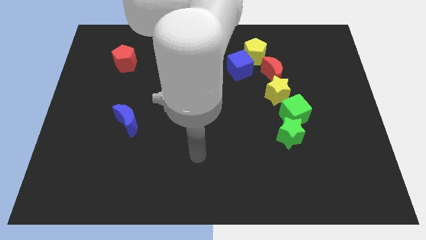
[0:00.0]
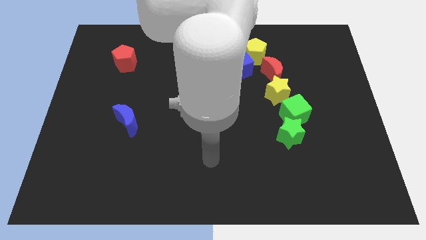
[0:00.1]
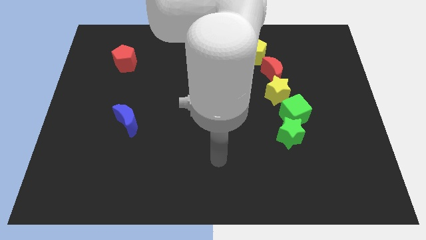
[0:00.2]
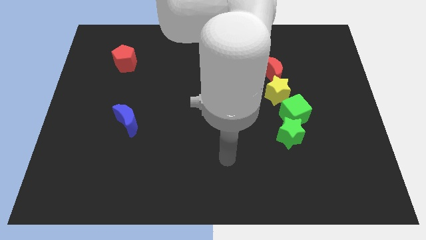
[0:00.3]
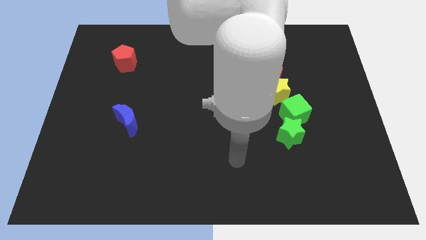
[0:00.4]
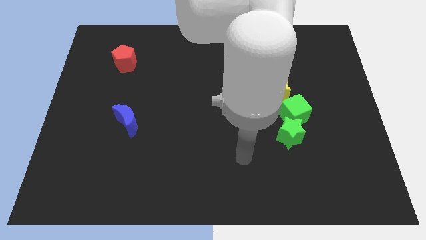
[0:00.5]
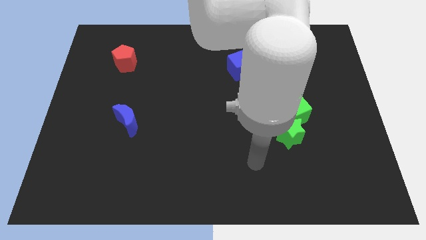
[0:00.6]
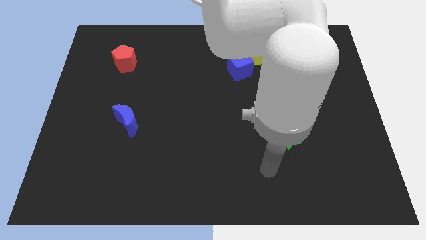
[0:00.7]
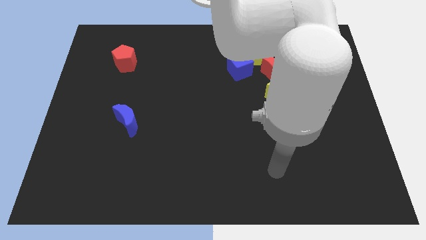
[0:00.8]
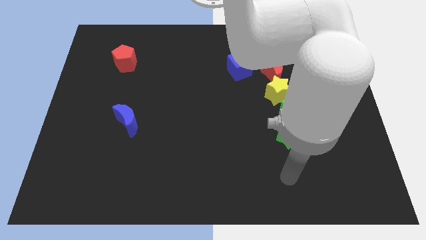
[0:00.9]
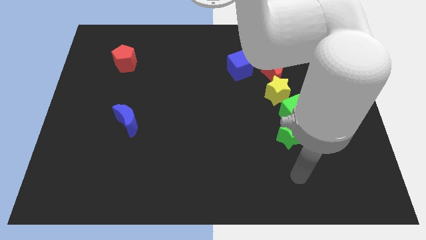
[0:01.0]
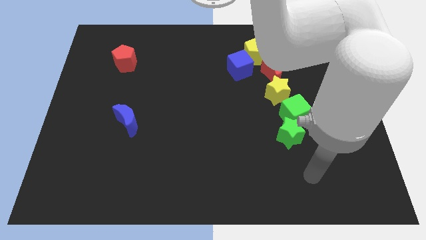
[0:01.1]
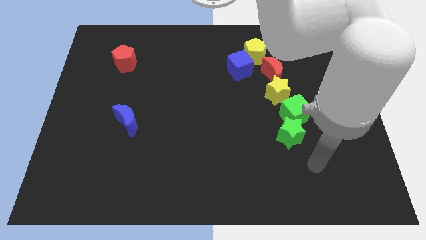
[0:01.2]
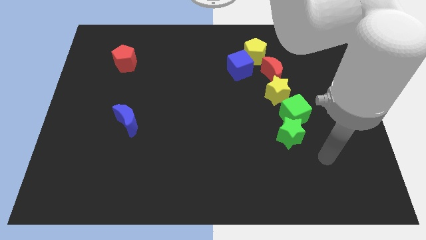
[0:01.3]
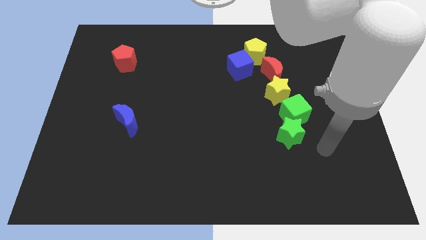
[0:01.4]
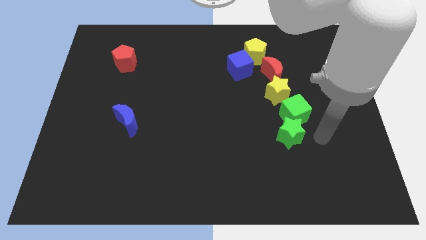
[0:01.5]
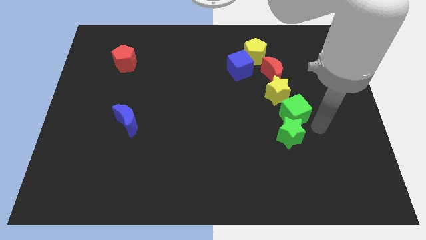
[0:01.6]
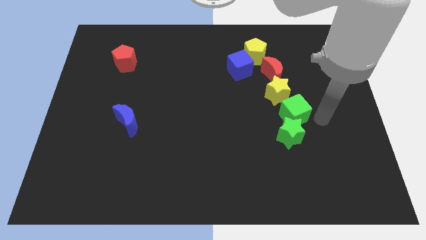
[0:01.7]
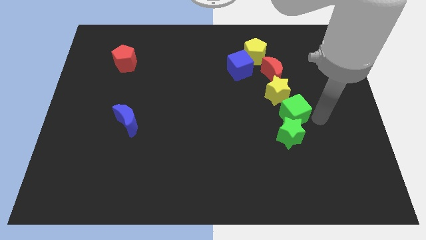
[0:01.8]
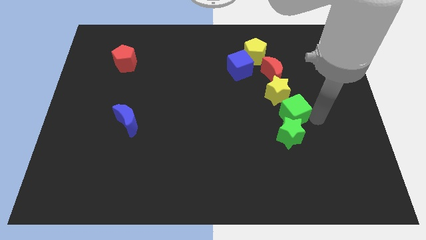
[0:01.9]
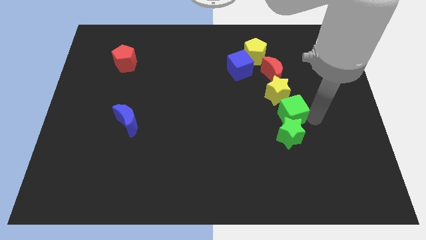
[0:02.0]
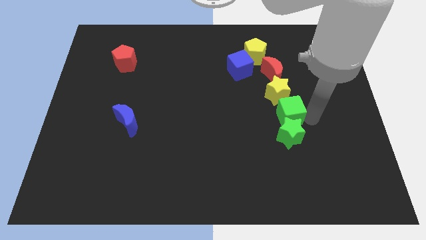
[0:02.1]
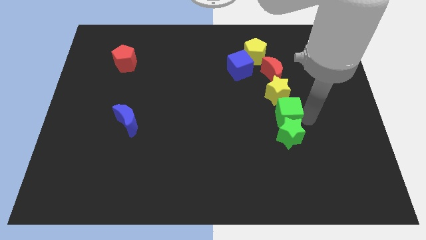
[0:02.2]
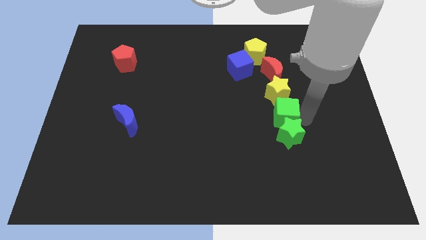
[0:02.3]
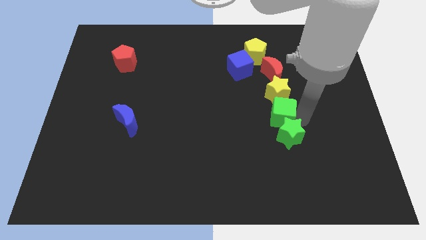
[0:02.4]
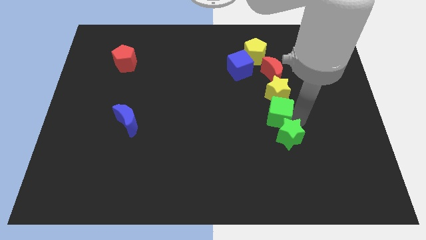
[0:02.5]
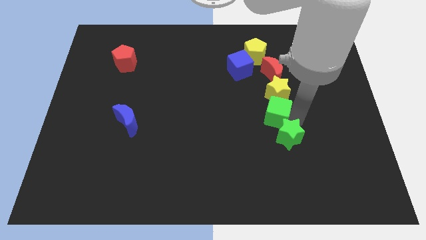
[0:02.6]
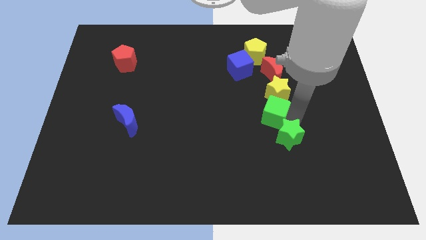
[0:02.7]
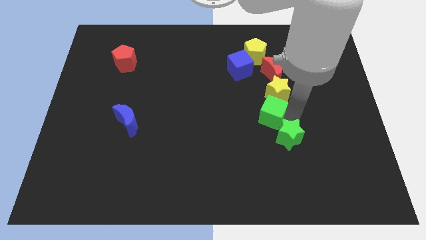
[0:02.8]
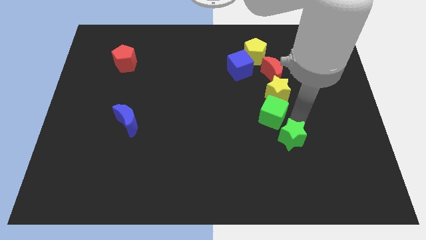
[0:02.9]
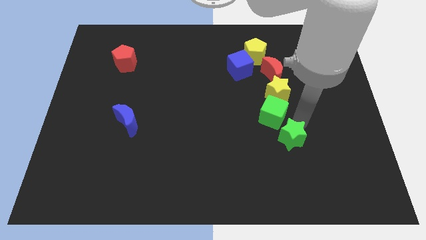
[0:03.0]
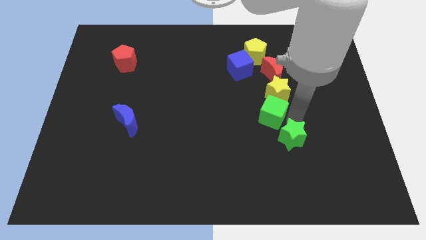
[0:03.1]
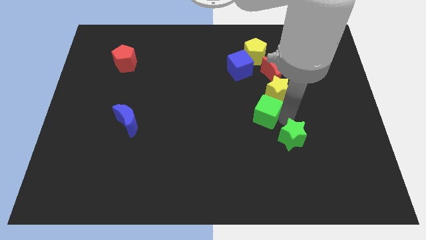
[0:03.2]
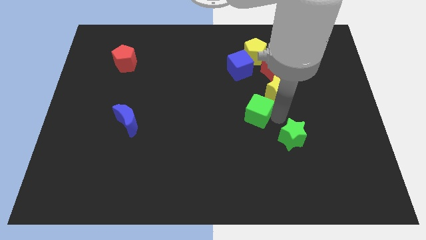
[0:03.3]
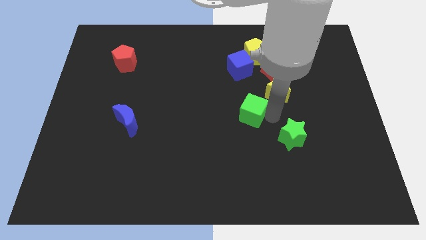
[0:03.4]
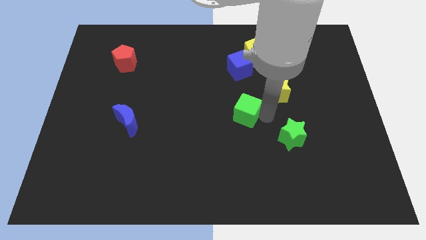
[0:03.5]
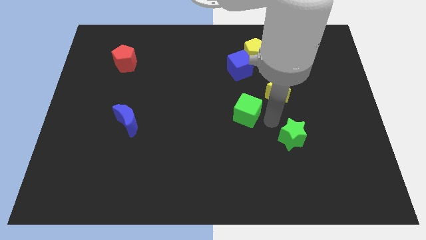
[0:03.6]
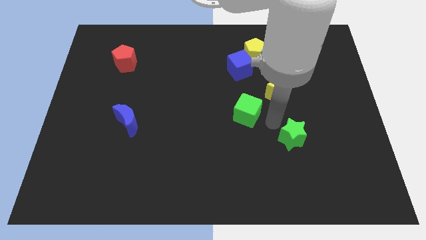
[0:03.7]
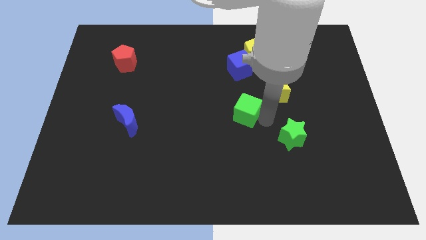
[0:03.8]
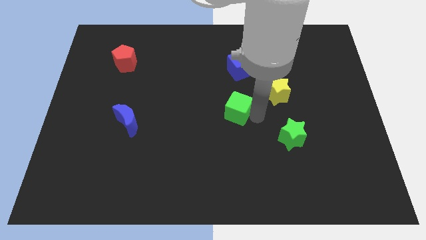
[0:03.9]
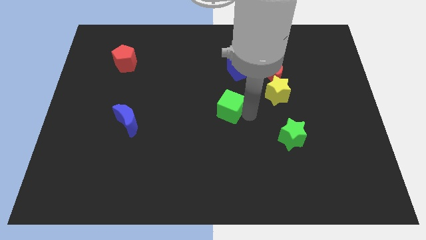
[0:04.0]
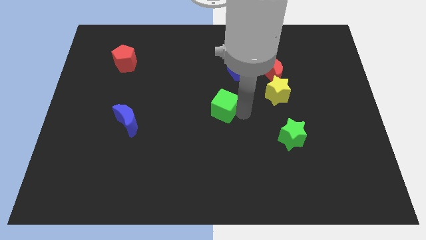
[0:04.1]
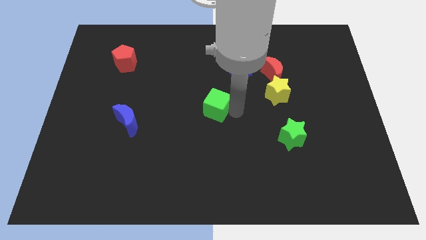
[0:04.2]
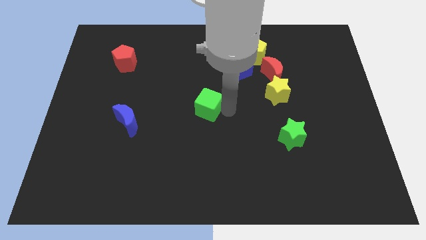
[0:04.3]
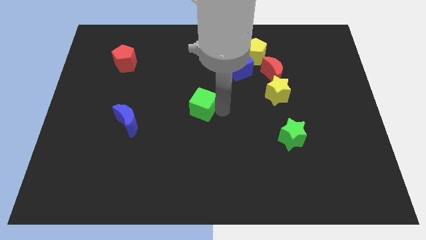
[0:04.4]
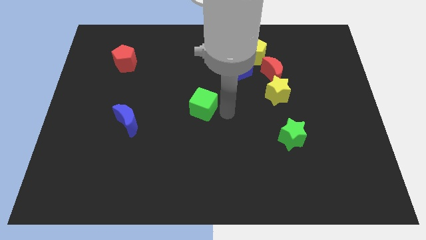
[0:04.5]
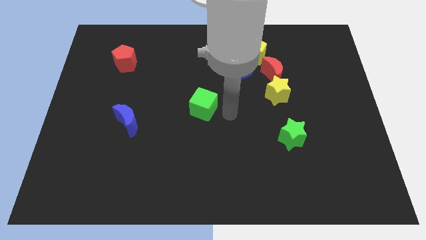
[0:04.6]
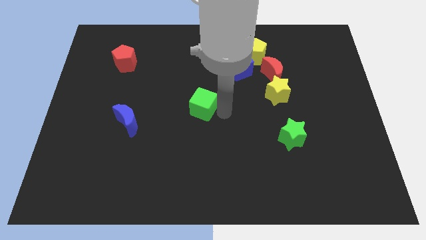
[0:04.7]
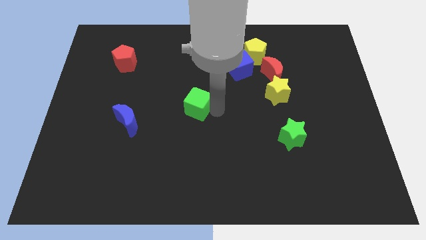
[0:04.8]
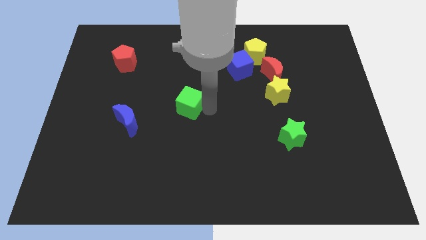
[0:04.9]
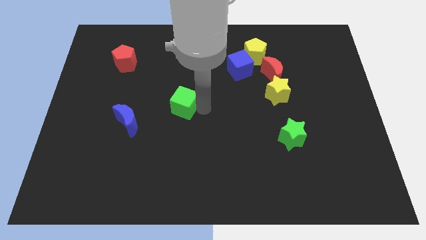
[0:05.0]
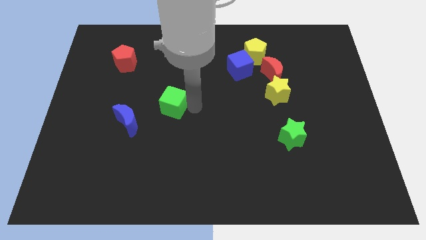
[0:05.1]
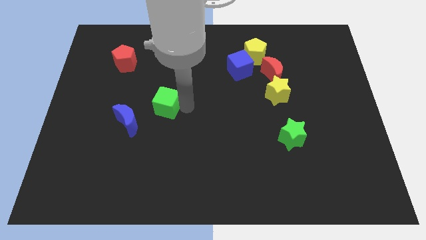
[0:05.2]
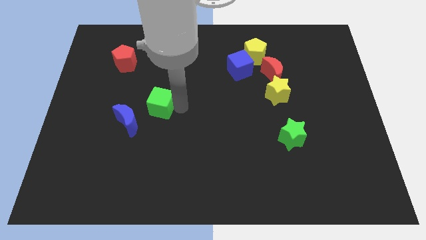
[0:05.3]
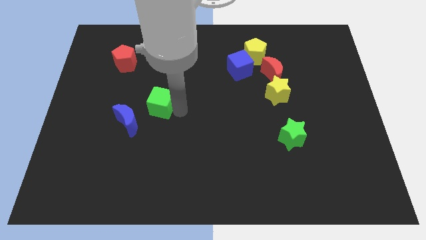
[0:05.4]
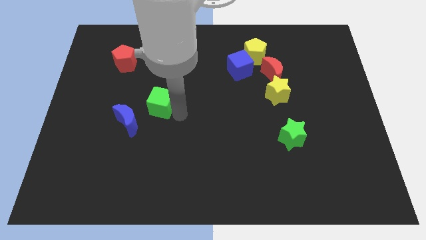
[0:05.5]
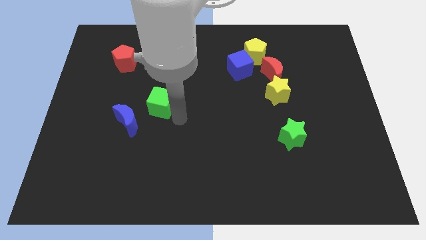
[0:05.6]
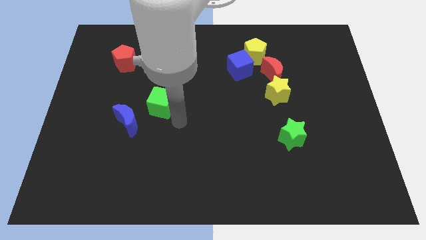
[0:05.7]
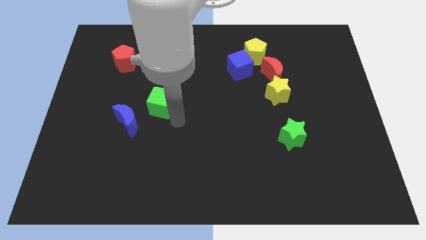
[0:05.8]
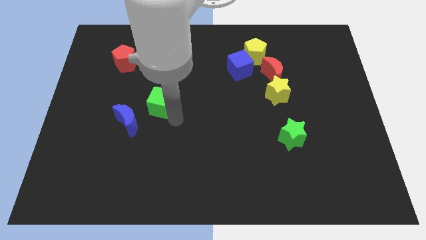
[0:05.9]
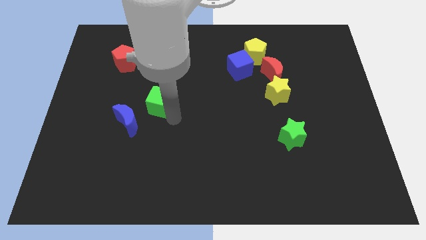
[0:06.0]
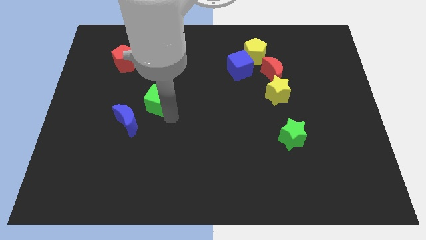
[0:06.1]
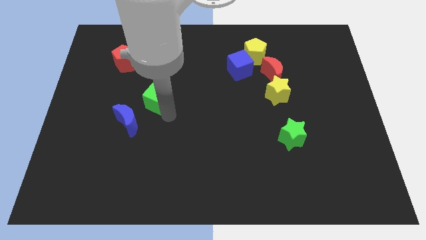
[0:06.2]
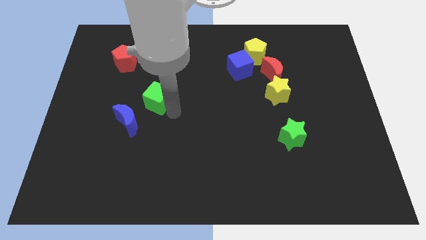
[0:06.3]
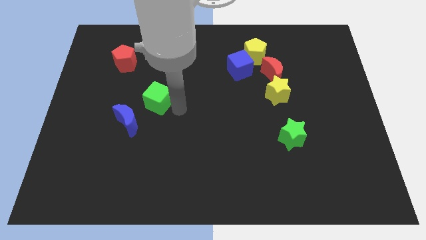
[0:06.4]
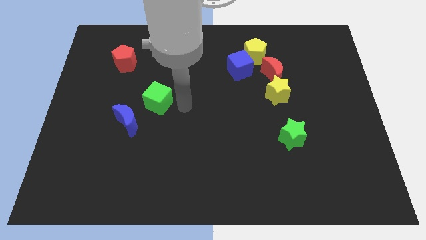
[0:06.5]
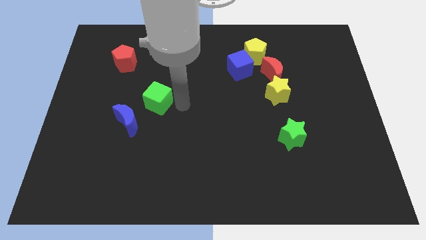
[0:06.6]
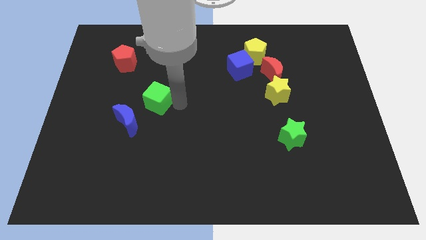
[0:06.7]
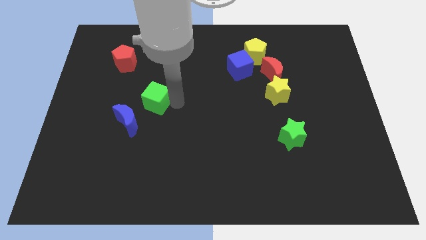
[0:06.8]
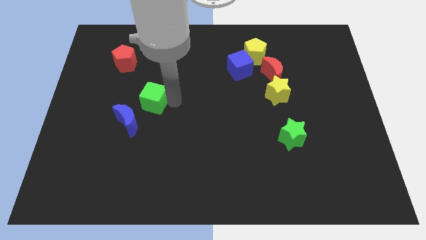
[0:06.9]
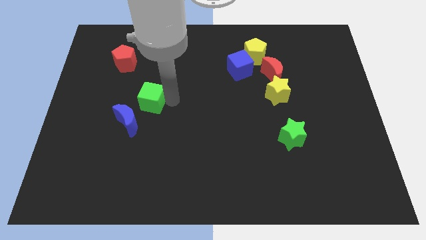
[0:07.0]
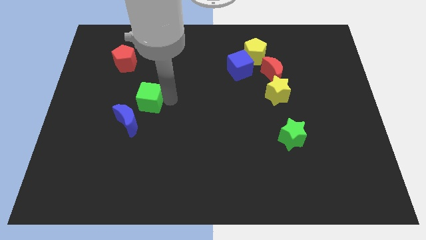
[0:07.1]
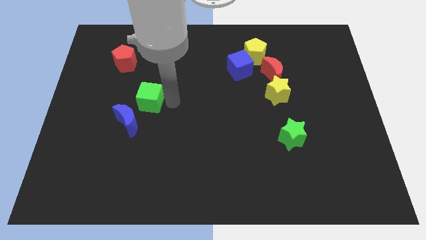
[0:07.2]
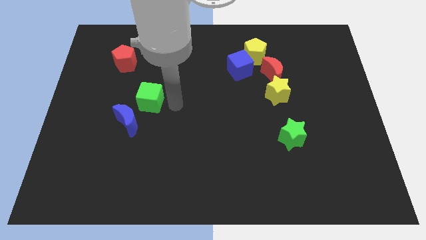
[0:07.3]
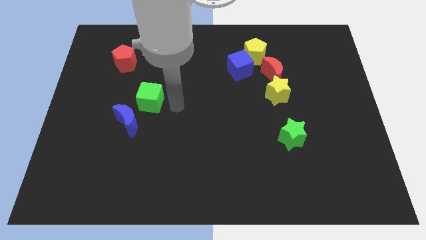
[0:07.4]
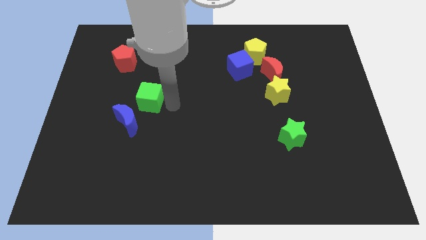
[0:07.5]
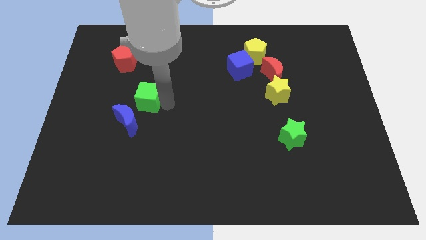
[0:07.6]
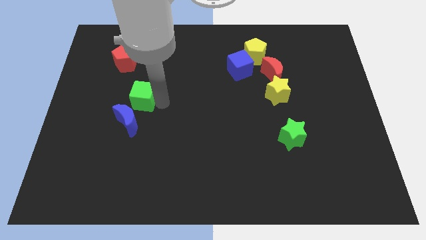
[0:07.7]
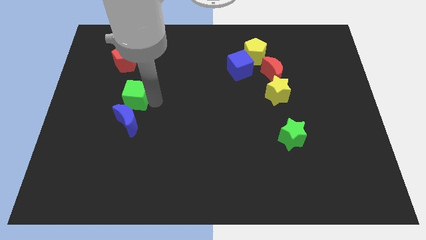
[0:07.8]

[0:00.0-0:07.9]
move the green cube below the red pentagon
